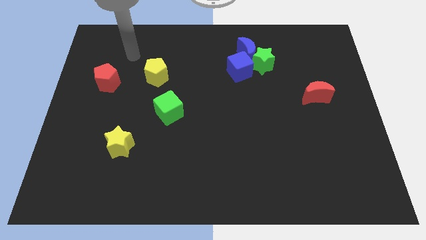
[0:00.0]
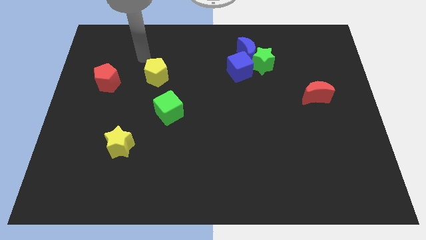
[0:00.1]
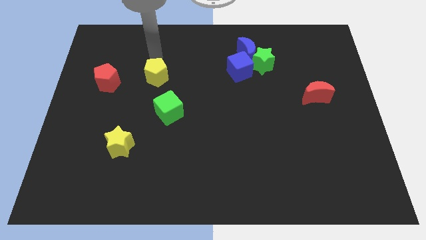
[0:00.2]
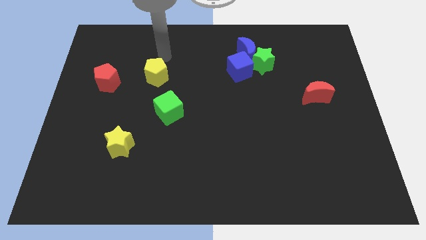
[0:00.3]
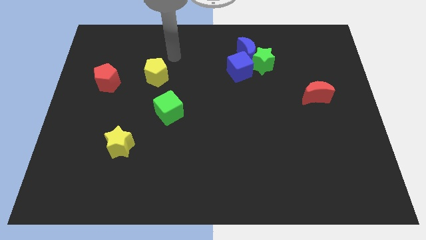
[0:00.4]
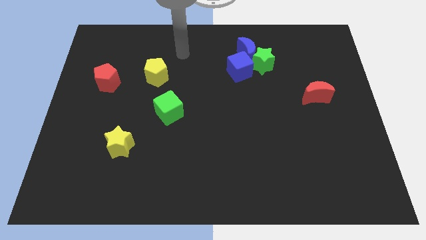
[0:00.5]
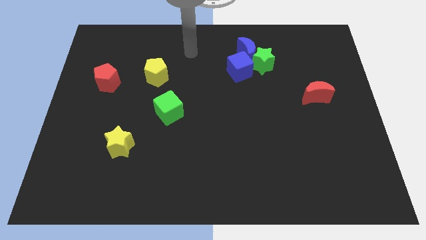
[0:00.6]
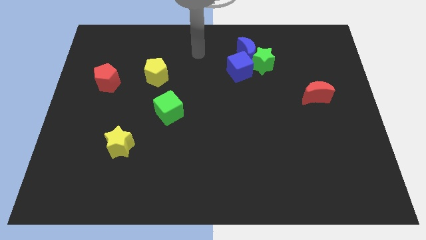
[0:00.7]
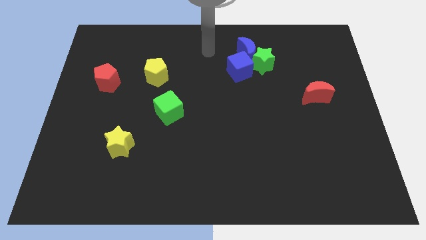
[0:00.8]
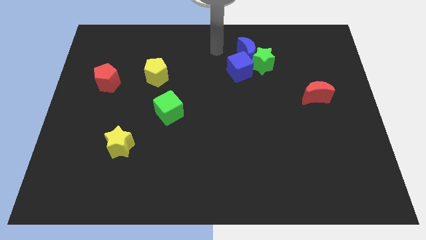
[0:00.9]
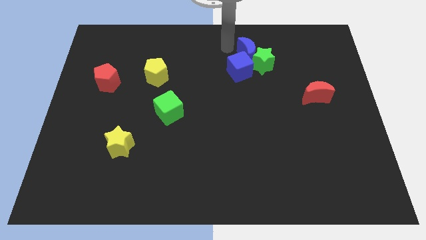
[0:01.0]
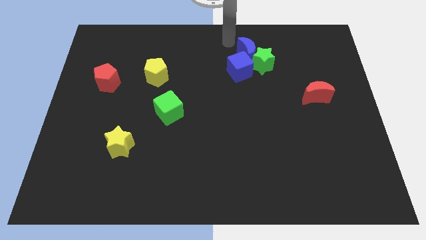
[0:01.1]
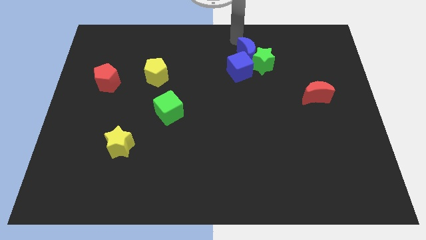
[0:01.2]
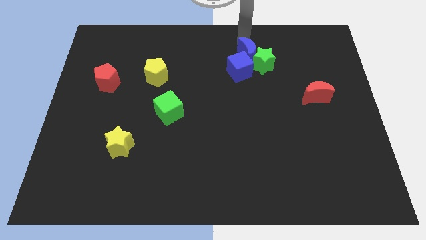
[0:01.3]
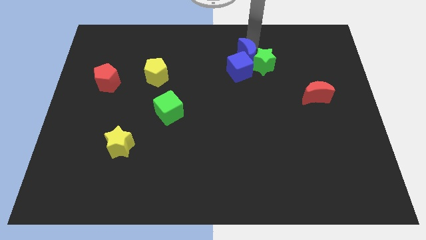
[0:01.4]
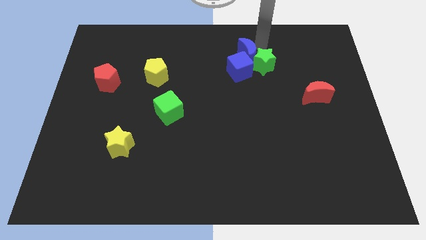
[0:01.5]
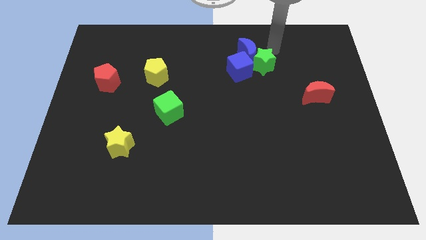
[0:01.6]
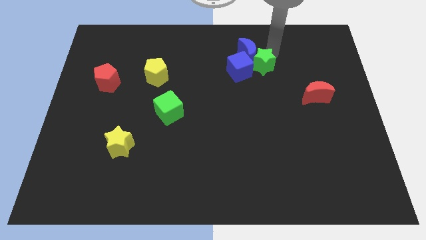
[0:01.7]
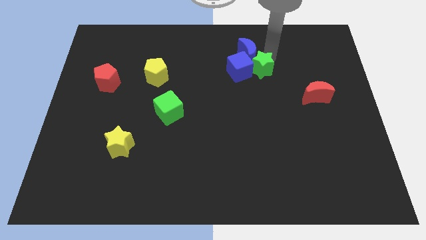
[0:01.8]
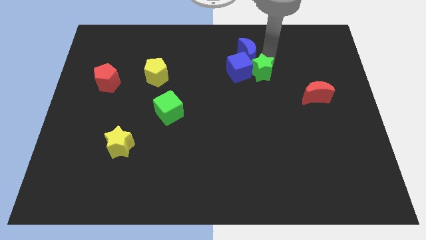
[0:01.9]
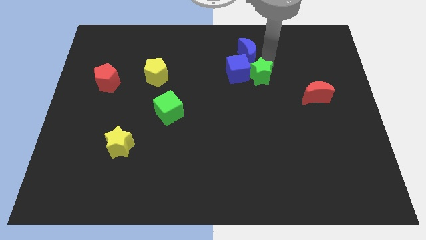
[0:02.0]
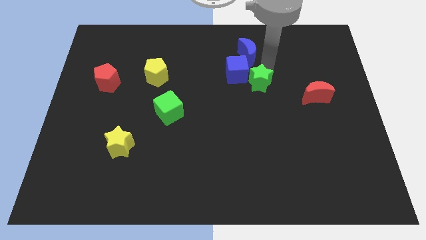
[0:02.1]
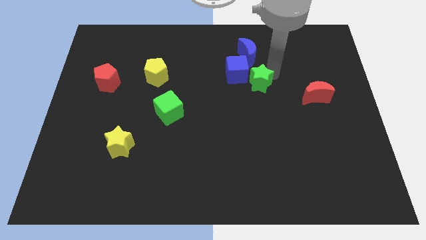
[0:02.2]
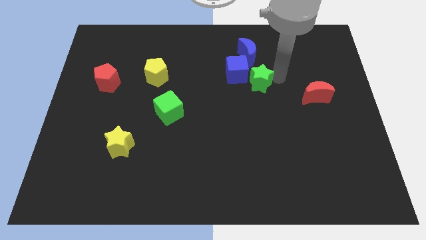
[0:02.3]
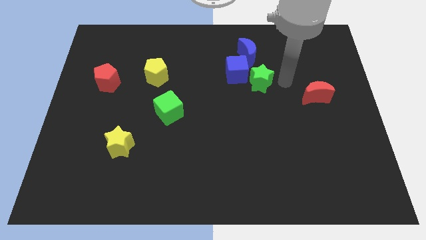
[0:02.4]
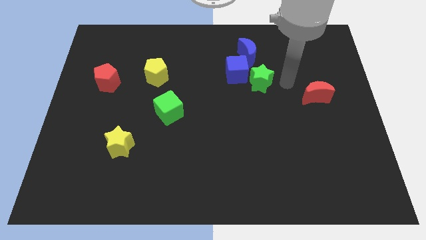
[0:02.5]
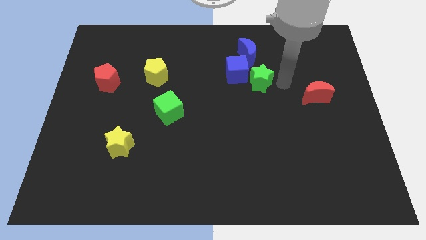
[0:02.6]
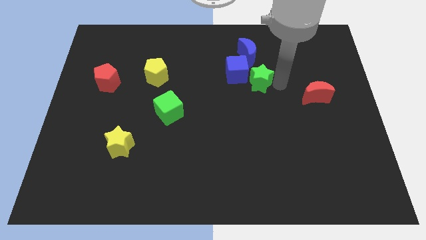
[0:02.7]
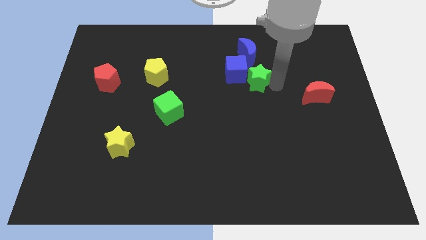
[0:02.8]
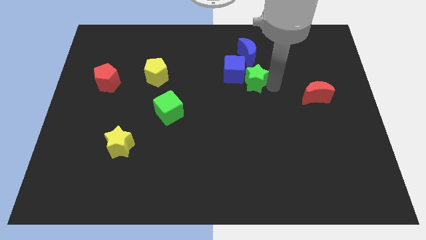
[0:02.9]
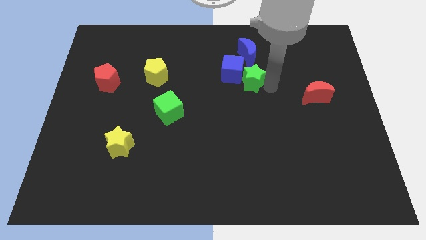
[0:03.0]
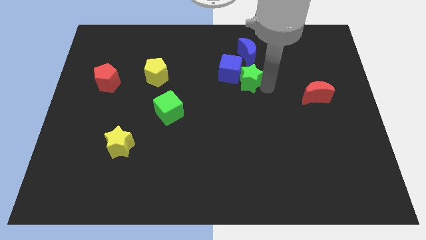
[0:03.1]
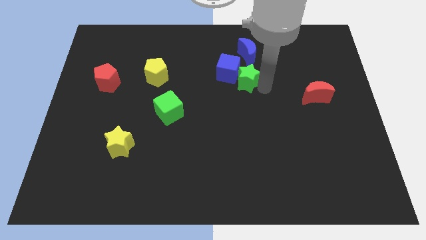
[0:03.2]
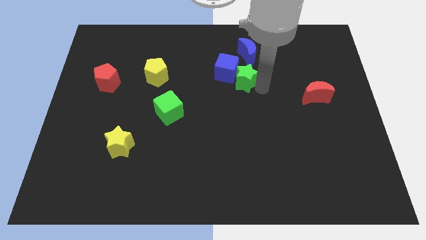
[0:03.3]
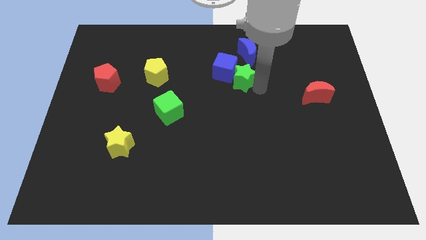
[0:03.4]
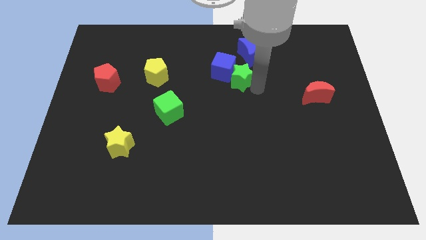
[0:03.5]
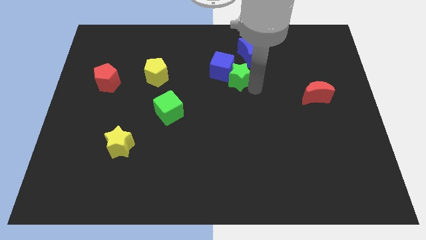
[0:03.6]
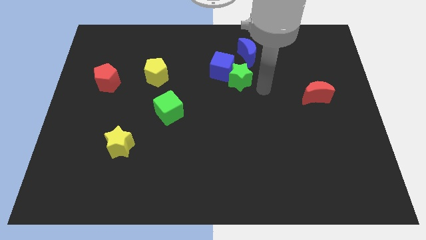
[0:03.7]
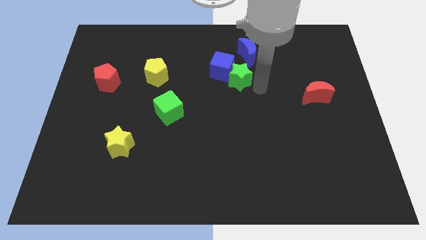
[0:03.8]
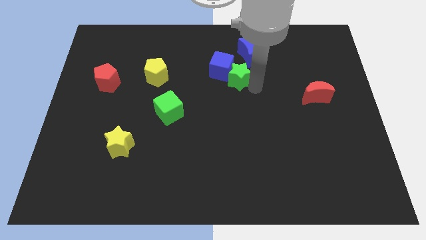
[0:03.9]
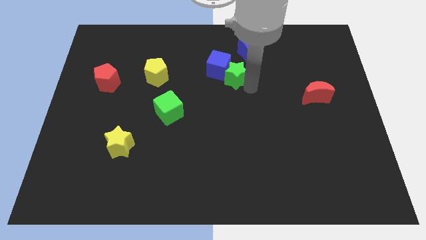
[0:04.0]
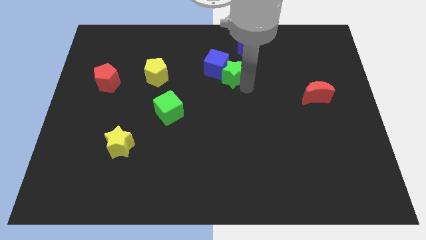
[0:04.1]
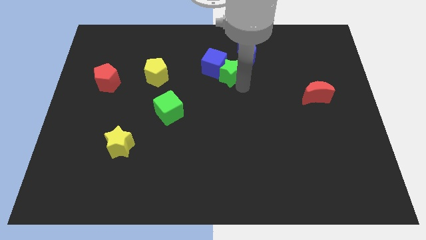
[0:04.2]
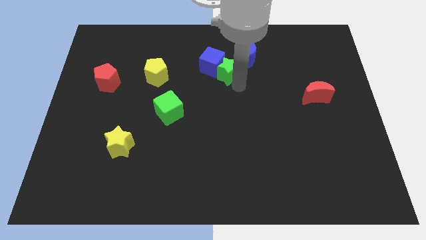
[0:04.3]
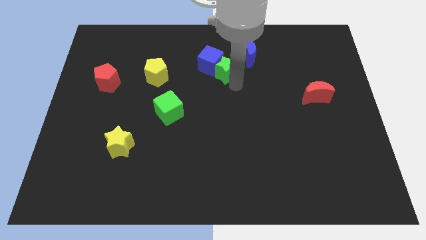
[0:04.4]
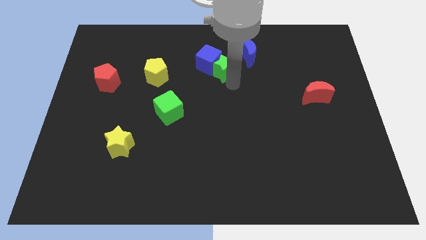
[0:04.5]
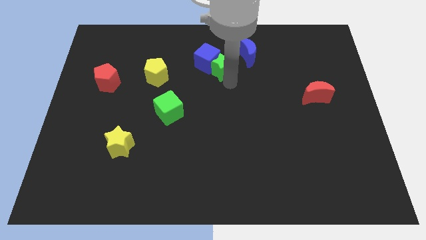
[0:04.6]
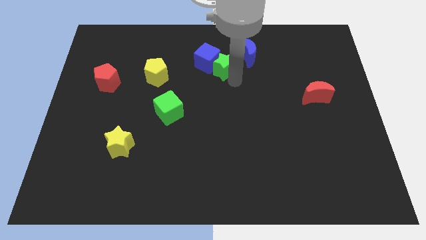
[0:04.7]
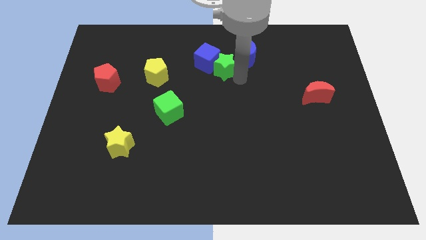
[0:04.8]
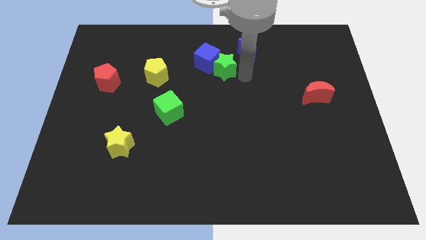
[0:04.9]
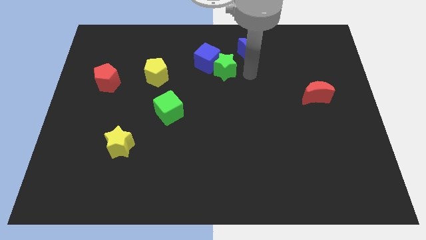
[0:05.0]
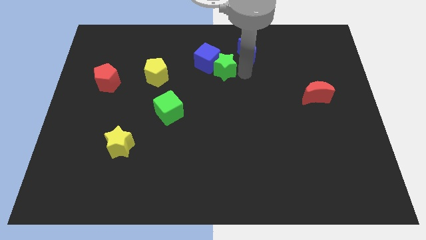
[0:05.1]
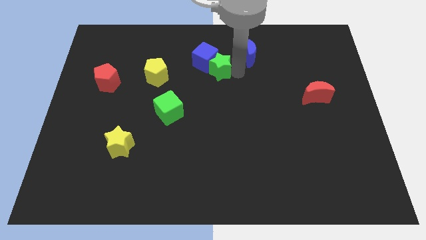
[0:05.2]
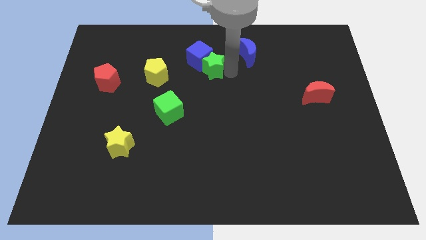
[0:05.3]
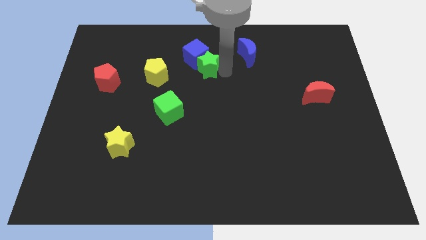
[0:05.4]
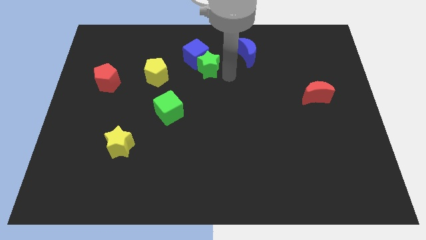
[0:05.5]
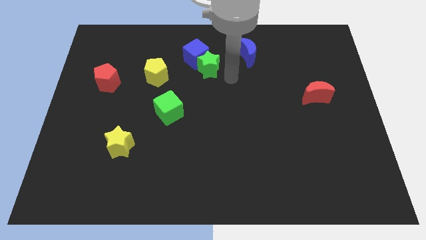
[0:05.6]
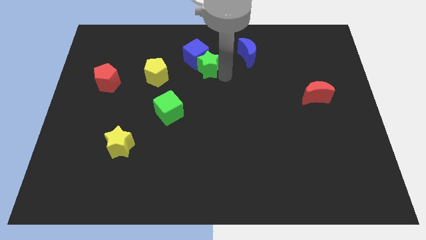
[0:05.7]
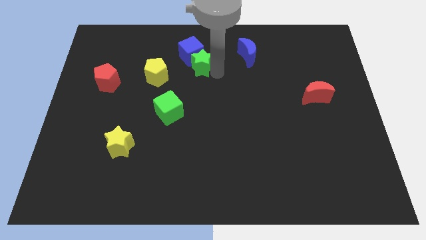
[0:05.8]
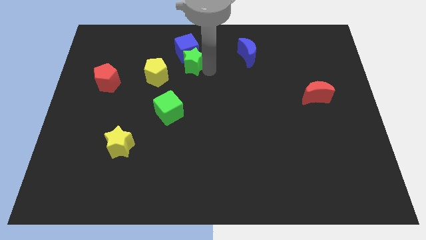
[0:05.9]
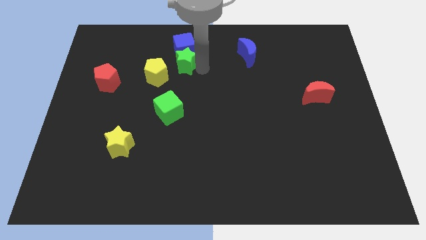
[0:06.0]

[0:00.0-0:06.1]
move the green star left

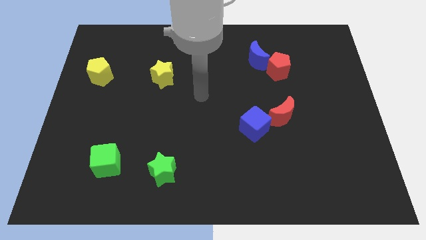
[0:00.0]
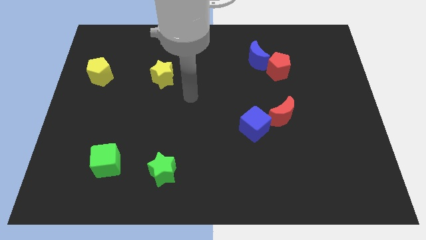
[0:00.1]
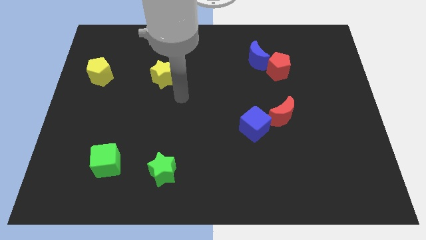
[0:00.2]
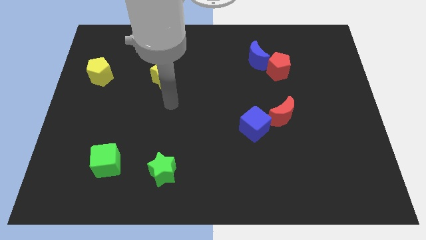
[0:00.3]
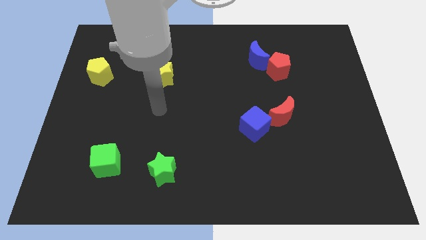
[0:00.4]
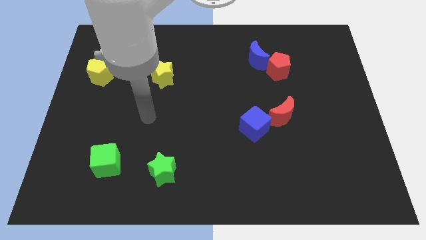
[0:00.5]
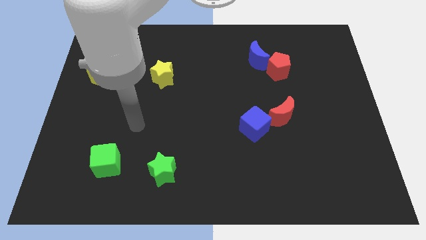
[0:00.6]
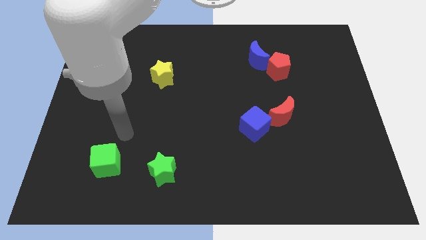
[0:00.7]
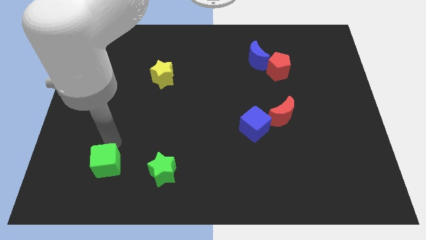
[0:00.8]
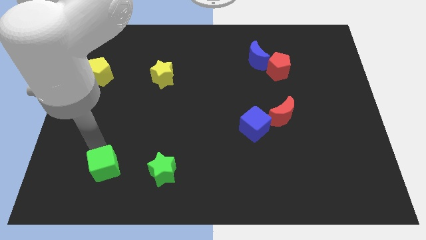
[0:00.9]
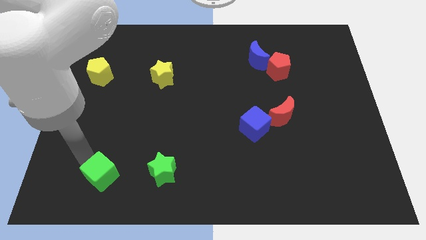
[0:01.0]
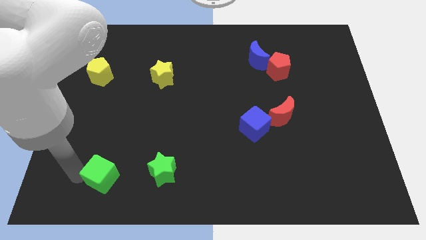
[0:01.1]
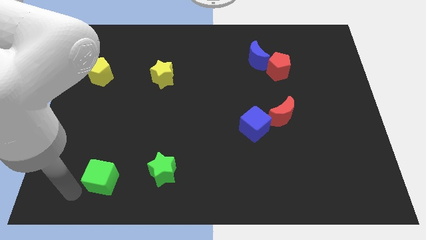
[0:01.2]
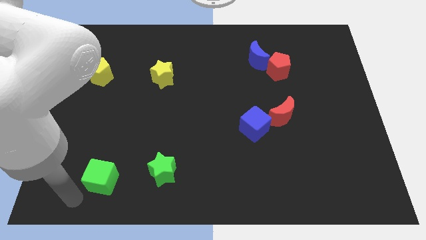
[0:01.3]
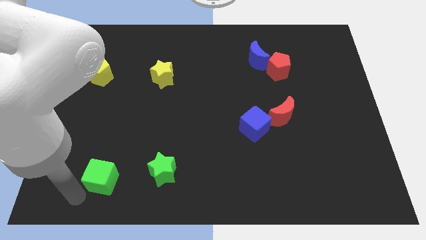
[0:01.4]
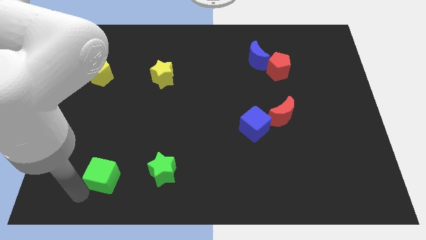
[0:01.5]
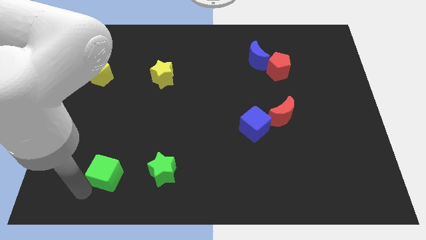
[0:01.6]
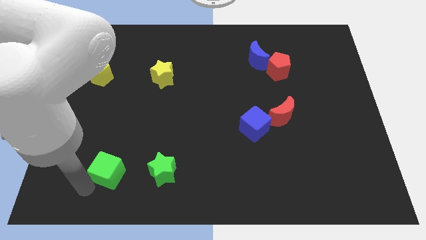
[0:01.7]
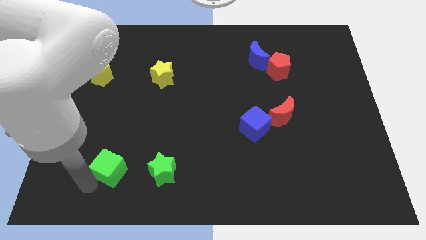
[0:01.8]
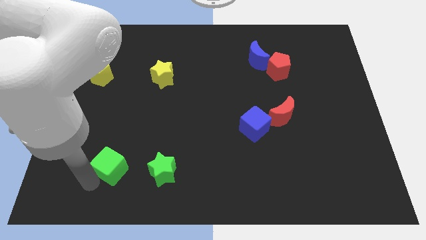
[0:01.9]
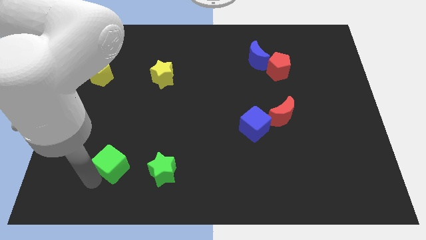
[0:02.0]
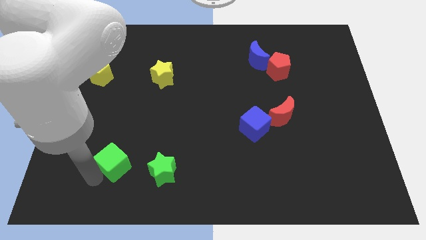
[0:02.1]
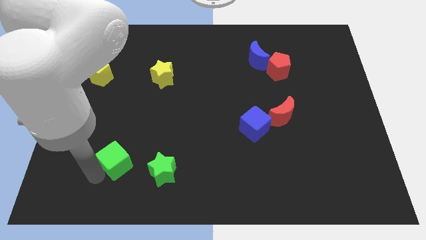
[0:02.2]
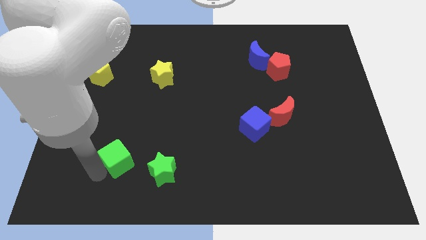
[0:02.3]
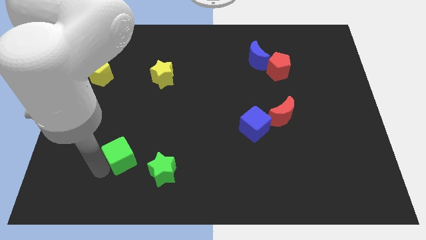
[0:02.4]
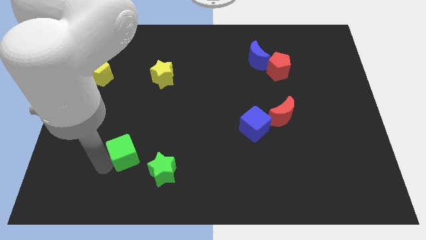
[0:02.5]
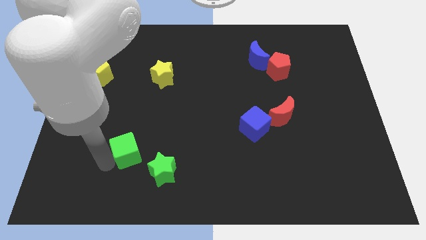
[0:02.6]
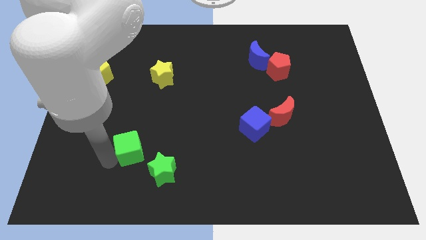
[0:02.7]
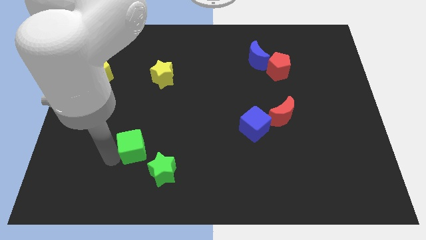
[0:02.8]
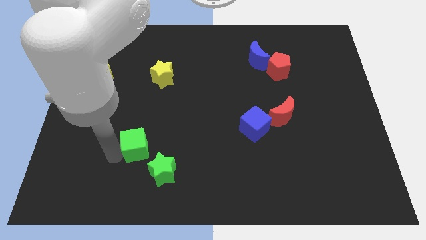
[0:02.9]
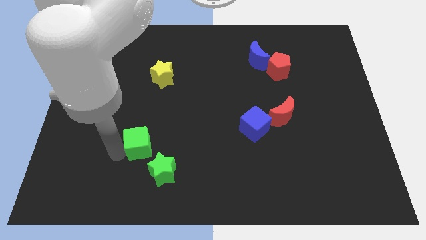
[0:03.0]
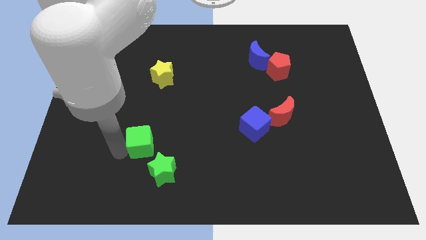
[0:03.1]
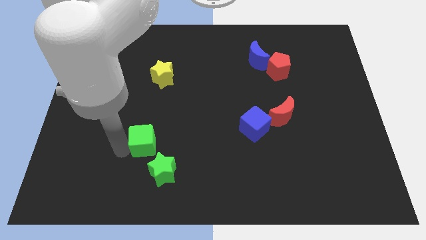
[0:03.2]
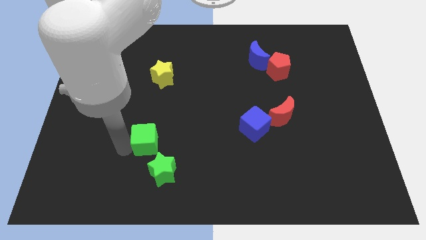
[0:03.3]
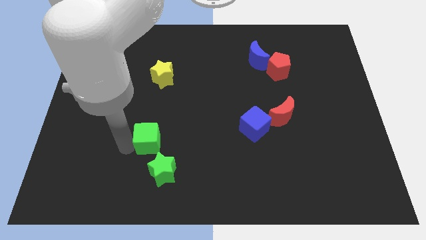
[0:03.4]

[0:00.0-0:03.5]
move the green cube to the right somewhat
